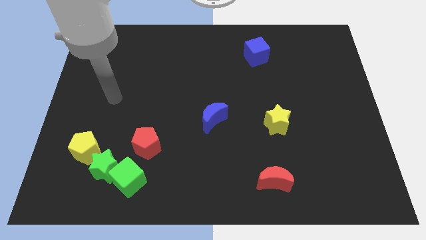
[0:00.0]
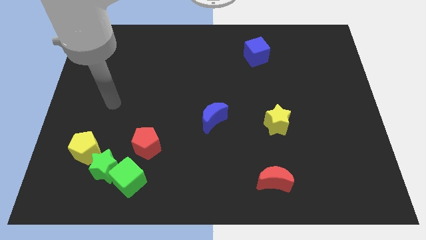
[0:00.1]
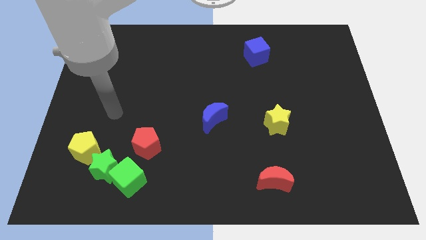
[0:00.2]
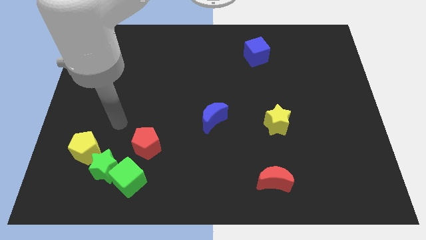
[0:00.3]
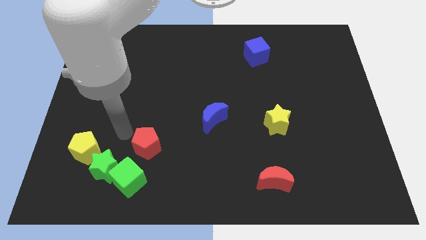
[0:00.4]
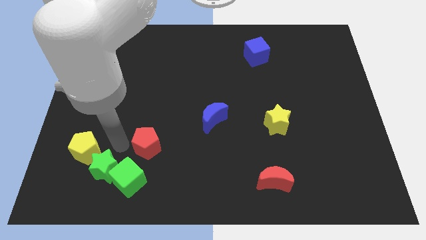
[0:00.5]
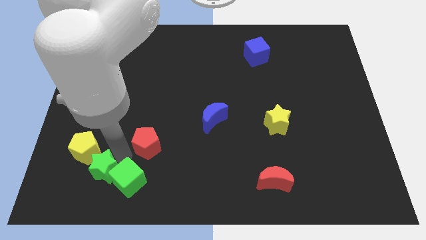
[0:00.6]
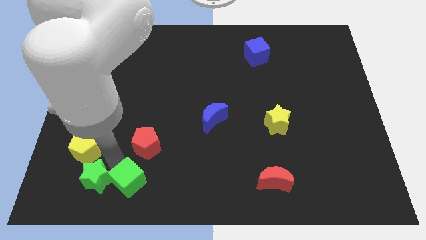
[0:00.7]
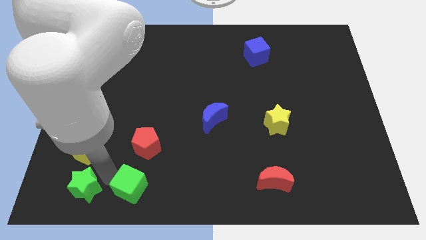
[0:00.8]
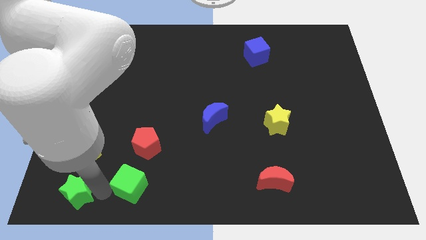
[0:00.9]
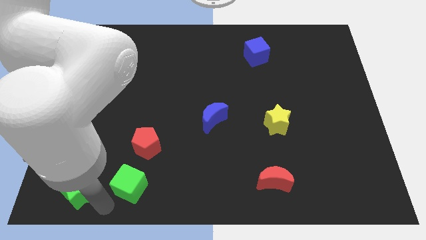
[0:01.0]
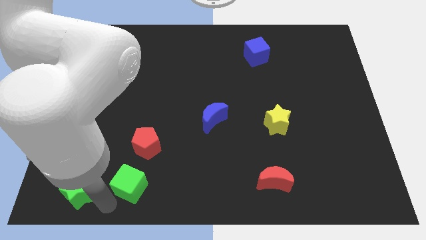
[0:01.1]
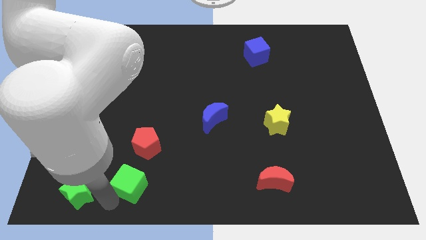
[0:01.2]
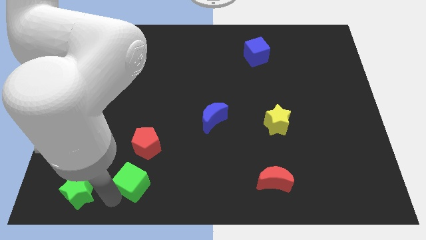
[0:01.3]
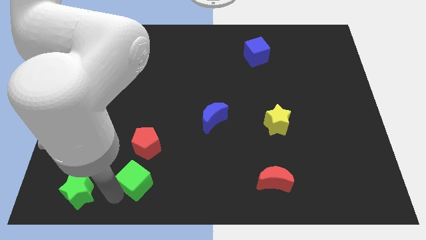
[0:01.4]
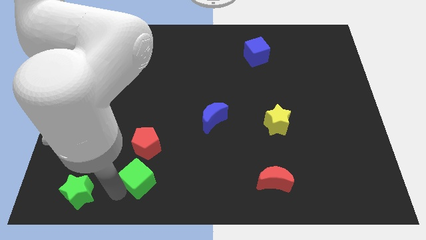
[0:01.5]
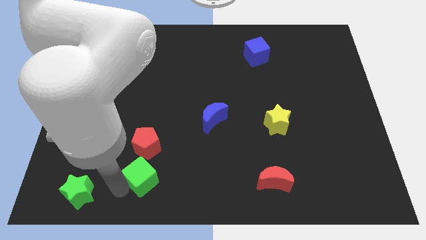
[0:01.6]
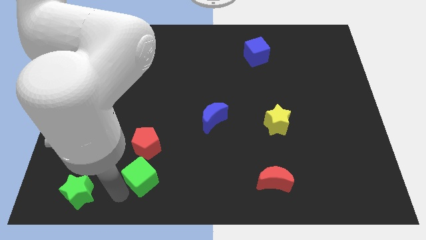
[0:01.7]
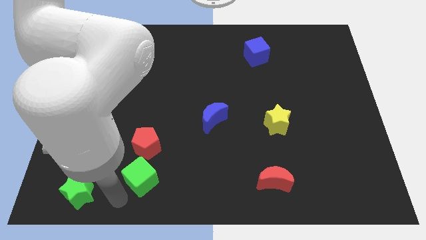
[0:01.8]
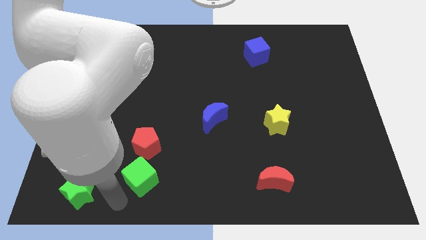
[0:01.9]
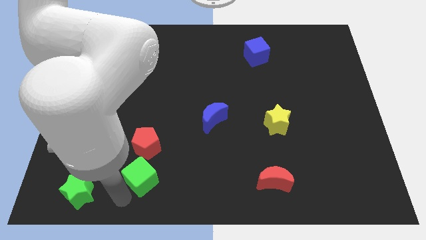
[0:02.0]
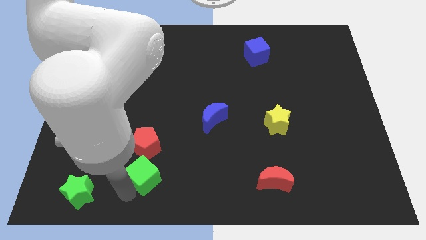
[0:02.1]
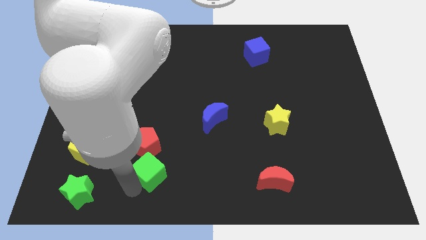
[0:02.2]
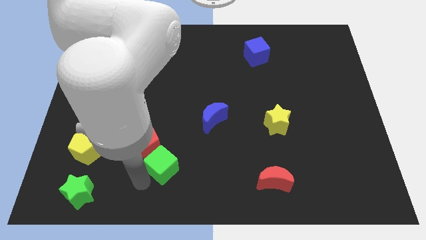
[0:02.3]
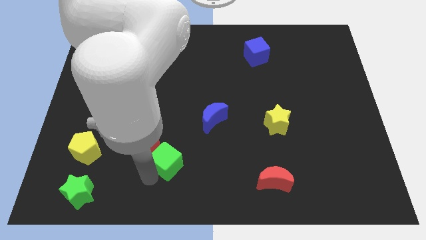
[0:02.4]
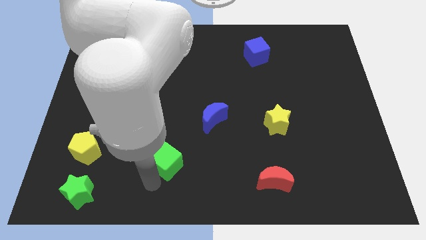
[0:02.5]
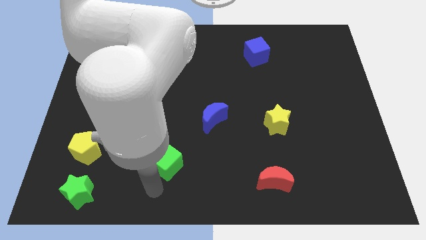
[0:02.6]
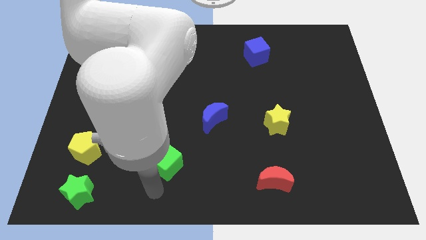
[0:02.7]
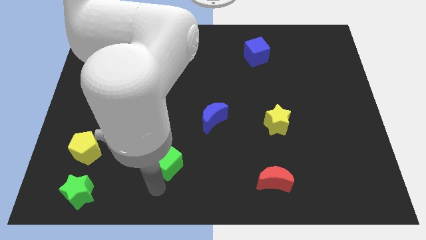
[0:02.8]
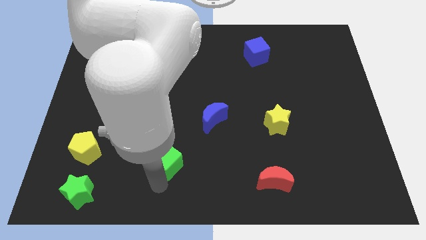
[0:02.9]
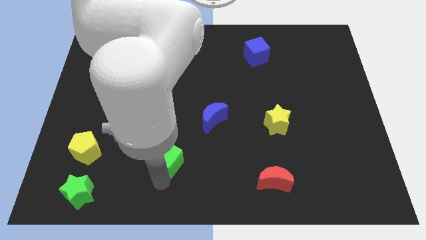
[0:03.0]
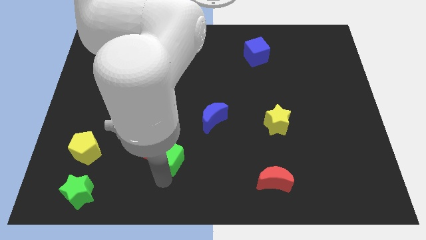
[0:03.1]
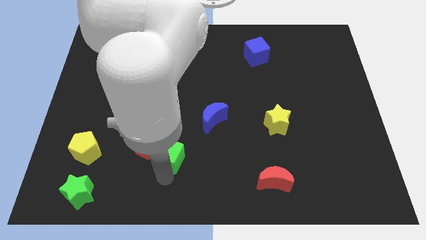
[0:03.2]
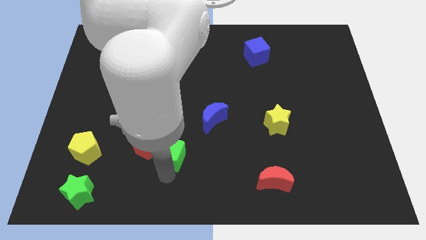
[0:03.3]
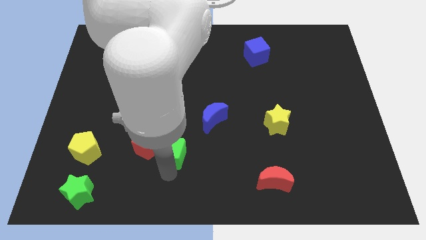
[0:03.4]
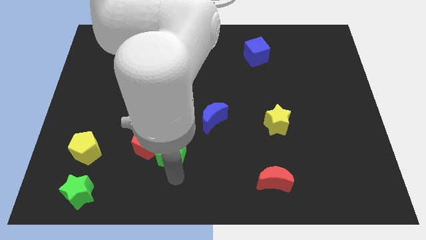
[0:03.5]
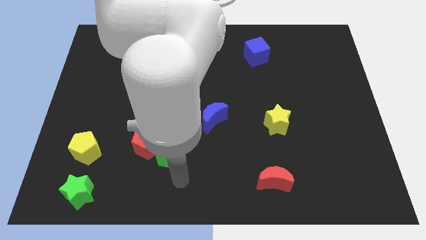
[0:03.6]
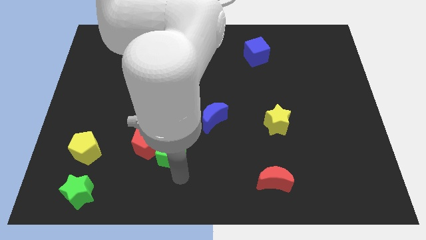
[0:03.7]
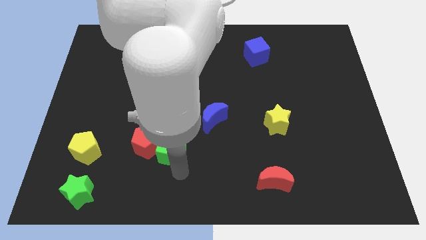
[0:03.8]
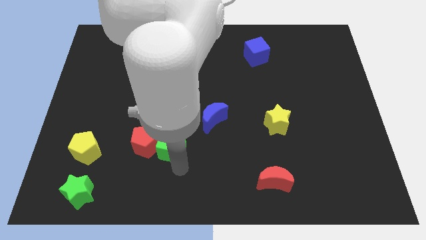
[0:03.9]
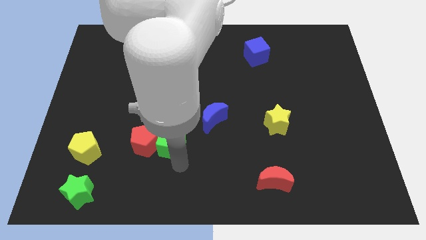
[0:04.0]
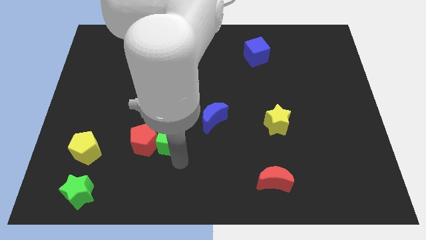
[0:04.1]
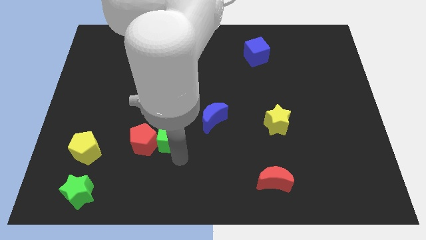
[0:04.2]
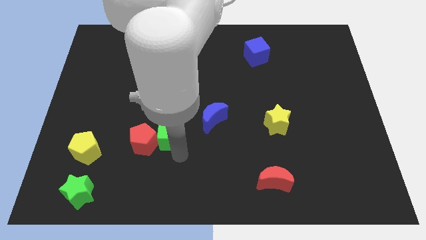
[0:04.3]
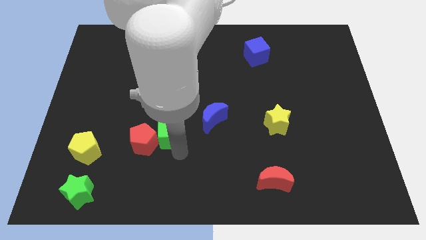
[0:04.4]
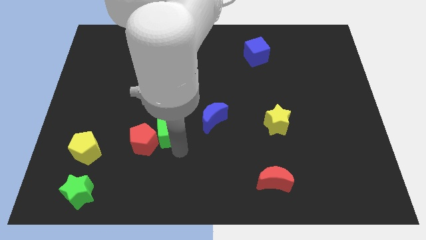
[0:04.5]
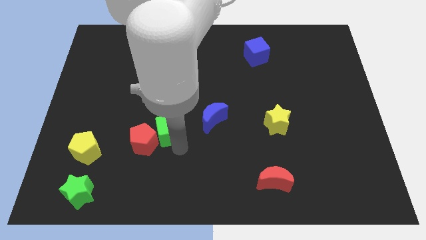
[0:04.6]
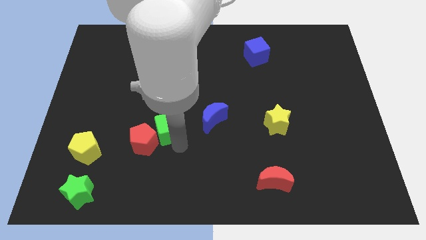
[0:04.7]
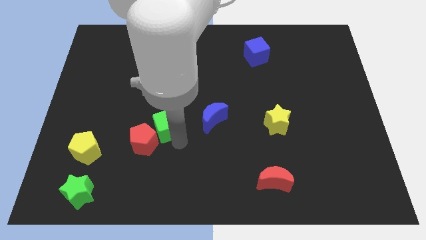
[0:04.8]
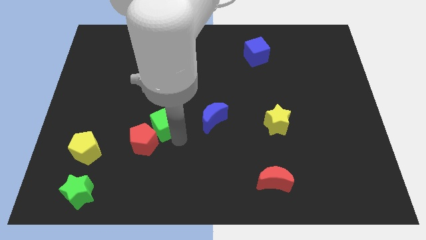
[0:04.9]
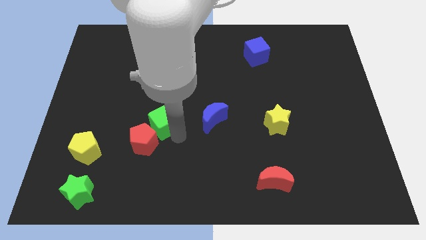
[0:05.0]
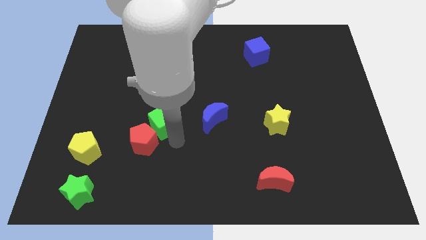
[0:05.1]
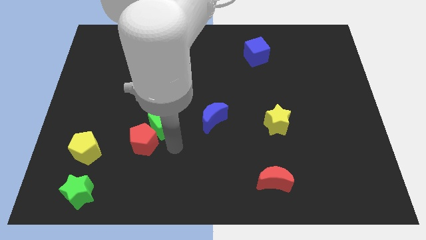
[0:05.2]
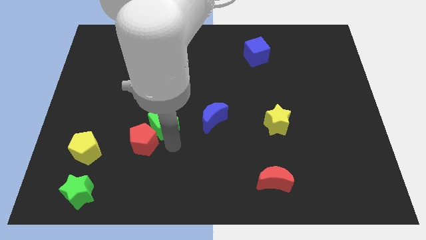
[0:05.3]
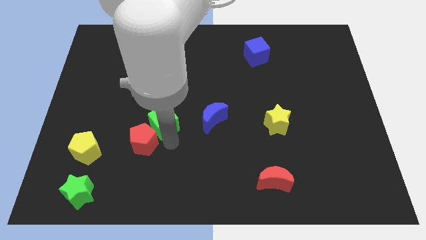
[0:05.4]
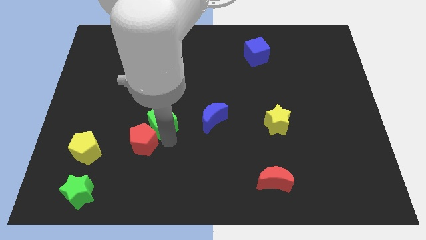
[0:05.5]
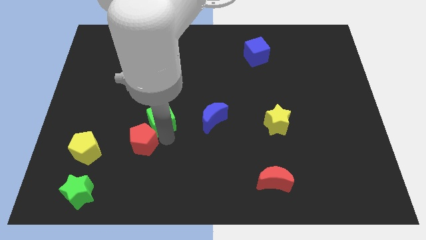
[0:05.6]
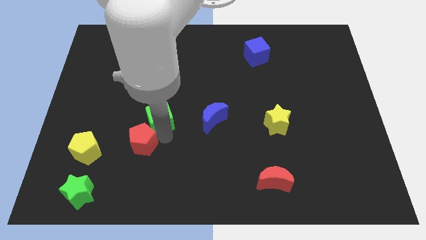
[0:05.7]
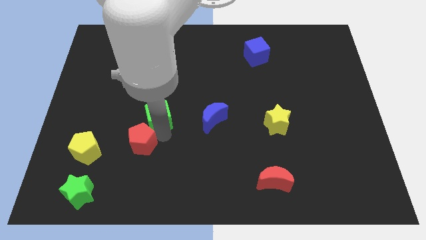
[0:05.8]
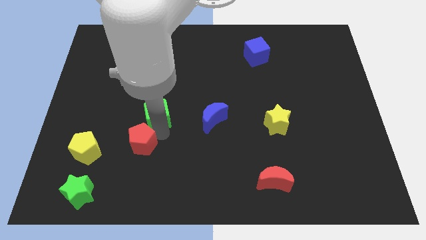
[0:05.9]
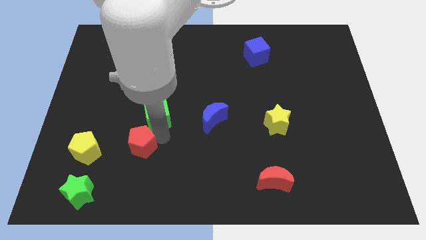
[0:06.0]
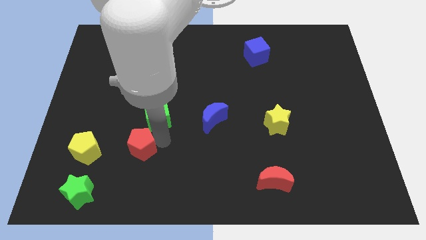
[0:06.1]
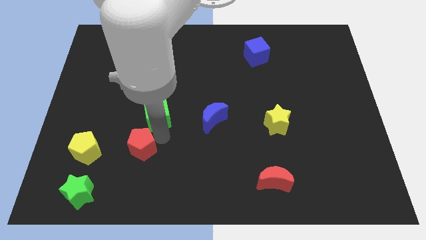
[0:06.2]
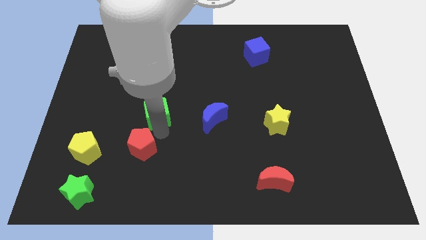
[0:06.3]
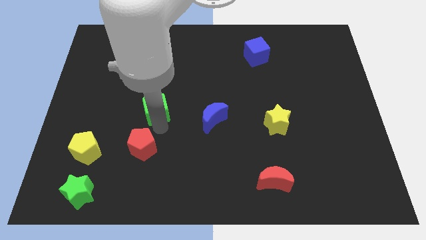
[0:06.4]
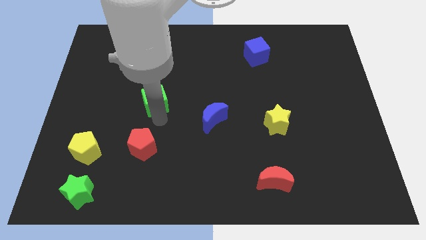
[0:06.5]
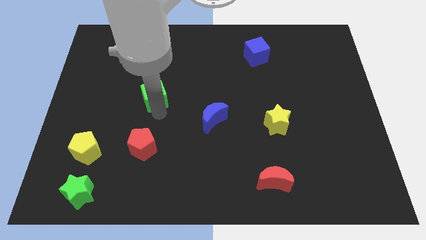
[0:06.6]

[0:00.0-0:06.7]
move the green cube up

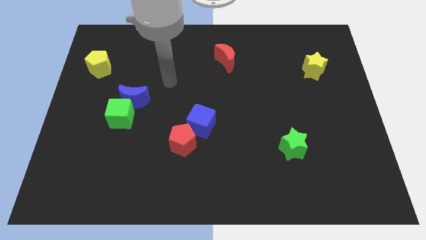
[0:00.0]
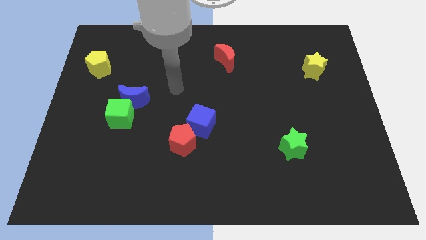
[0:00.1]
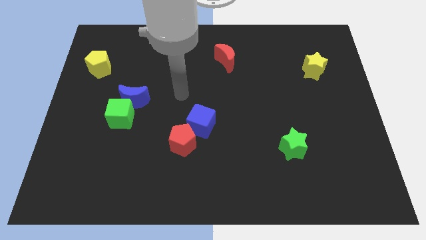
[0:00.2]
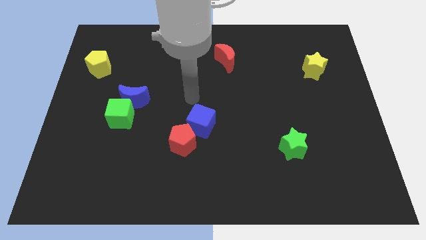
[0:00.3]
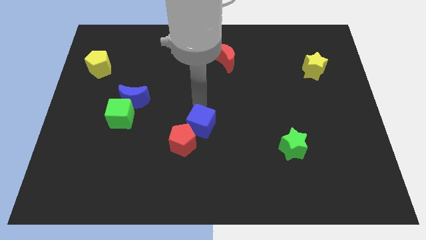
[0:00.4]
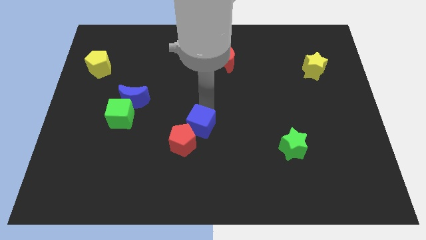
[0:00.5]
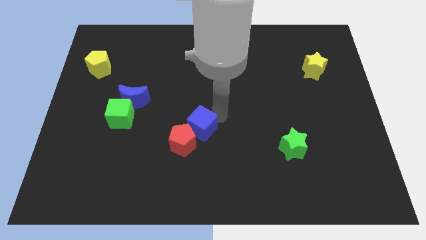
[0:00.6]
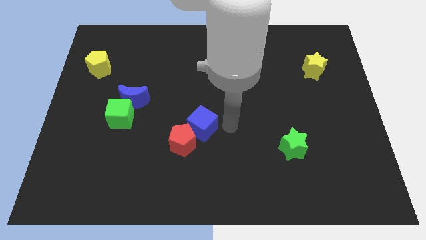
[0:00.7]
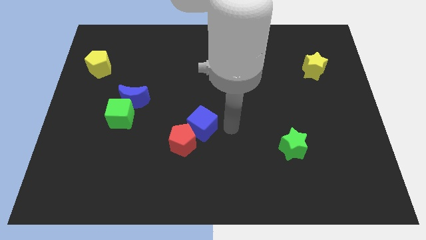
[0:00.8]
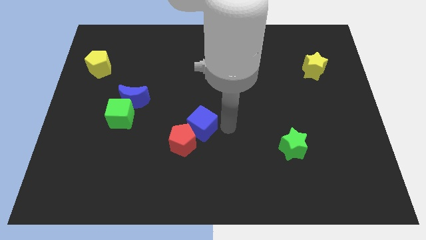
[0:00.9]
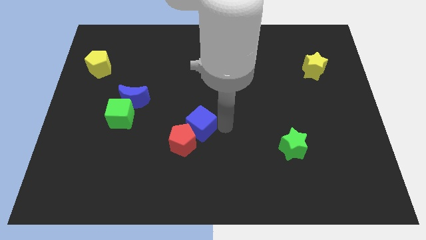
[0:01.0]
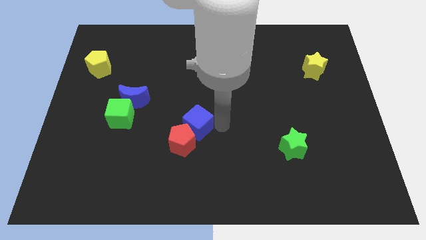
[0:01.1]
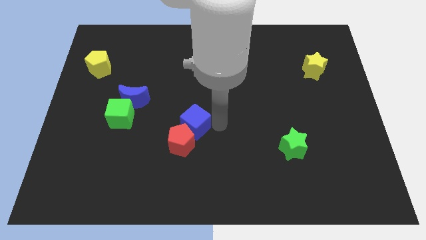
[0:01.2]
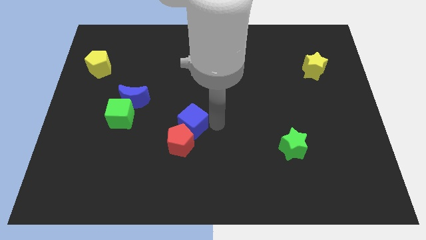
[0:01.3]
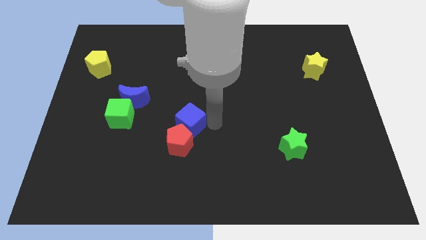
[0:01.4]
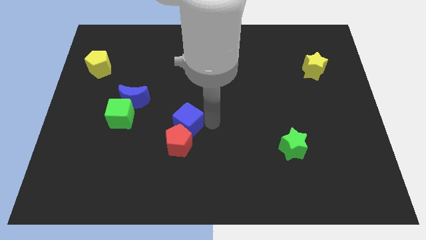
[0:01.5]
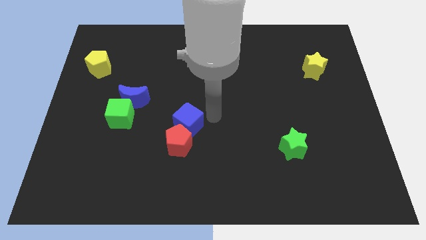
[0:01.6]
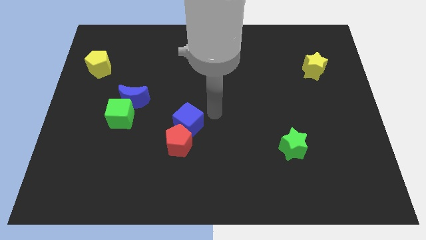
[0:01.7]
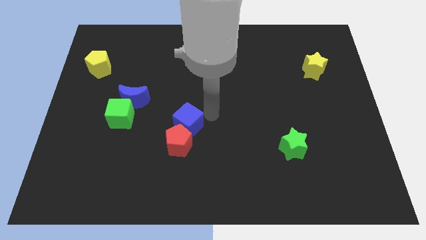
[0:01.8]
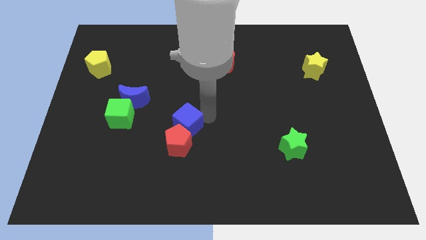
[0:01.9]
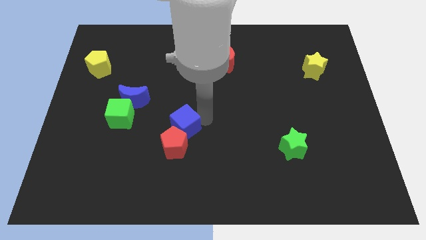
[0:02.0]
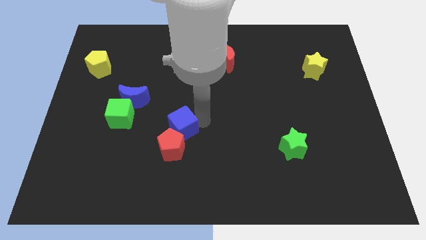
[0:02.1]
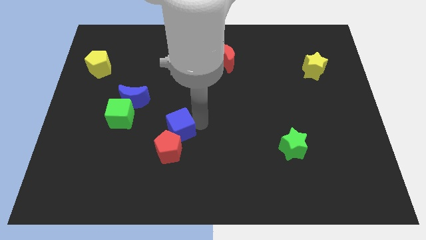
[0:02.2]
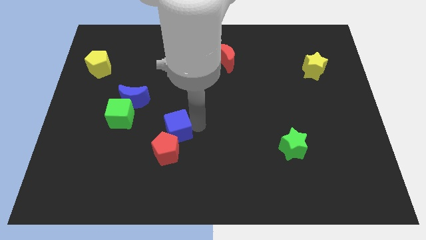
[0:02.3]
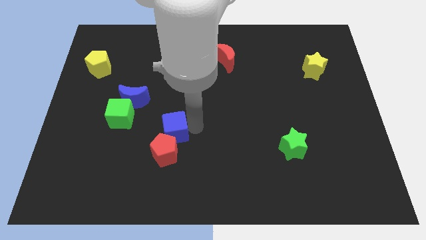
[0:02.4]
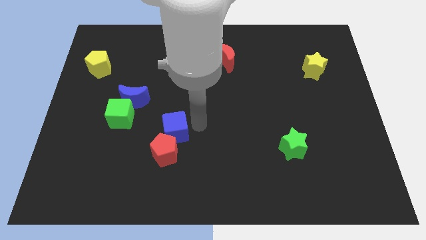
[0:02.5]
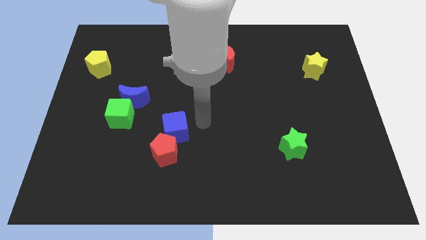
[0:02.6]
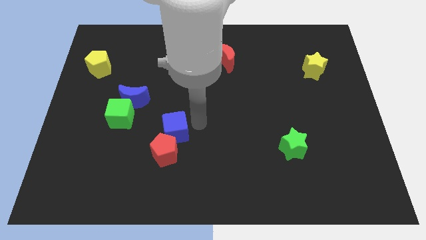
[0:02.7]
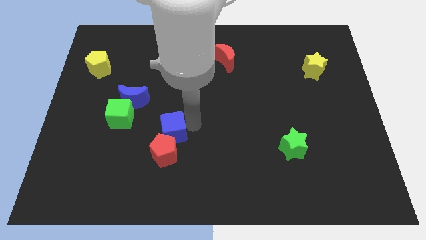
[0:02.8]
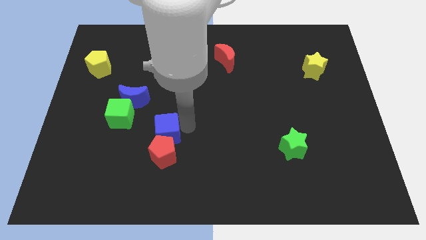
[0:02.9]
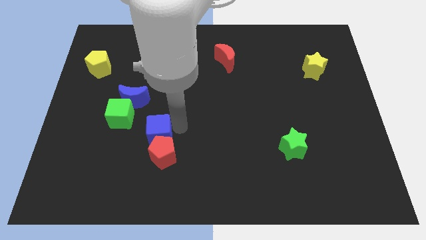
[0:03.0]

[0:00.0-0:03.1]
move the blue cube a bit downwards and left
